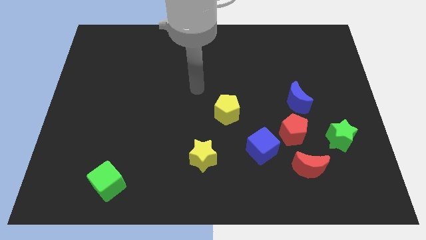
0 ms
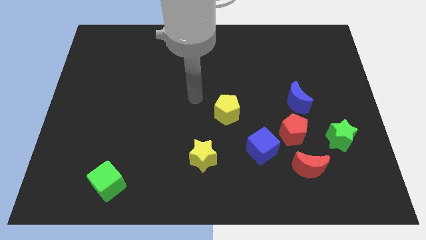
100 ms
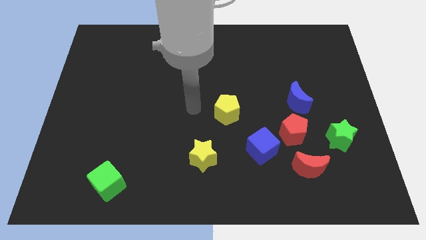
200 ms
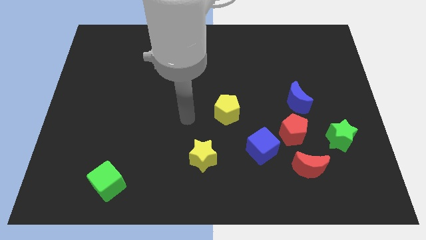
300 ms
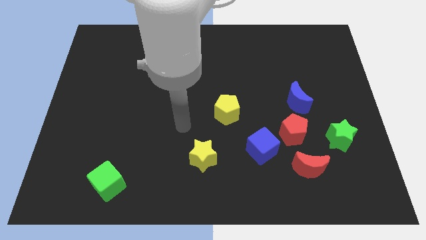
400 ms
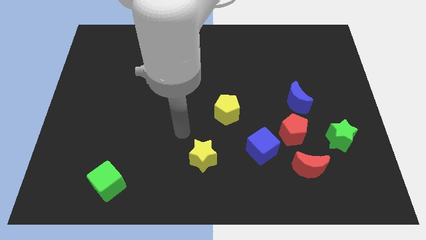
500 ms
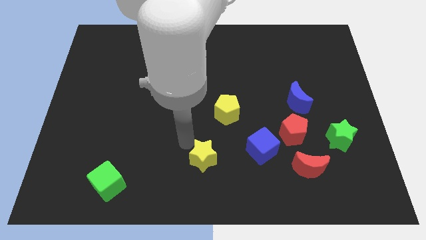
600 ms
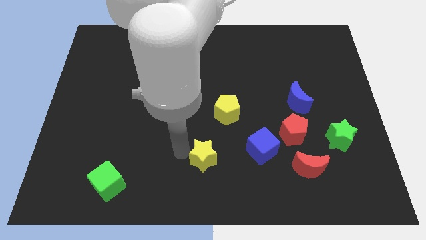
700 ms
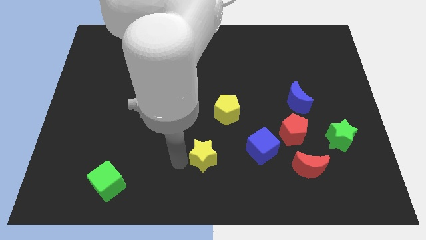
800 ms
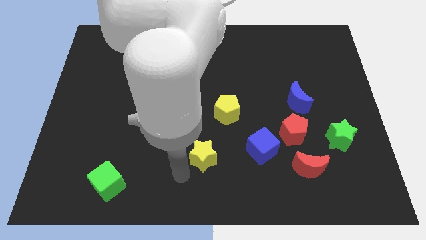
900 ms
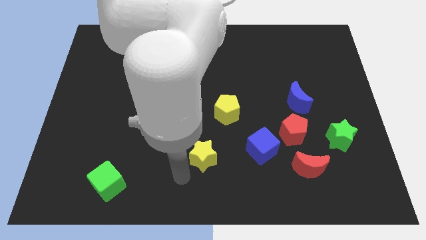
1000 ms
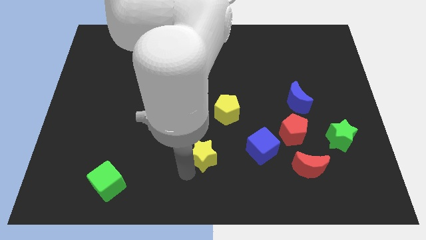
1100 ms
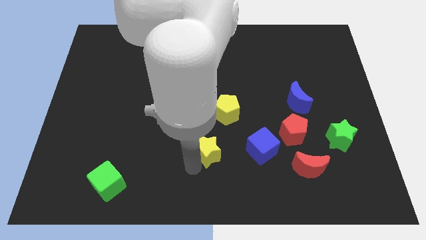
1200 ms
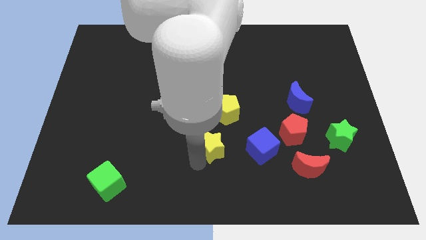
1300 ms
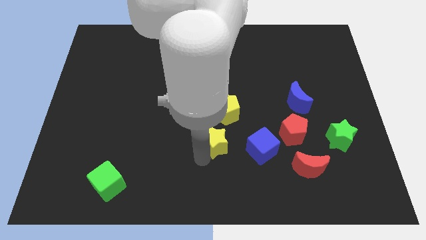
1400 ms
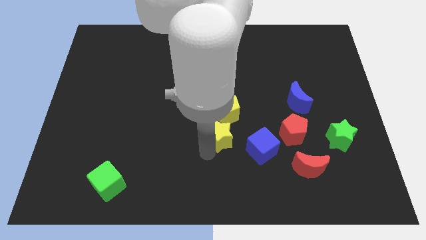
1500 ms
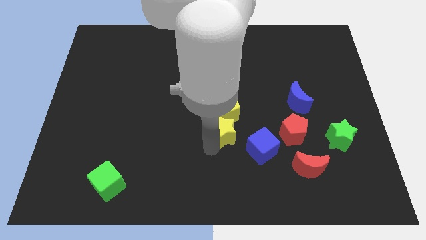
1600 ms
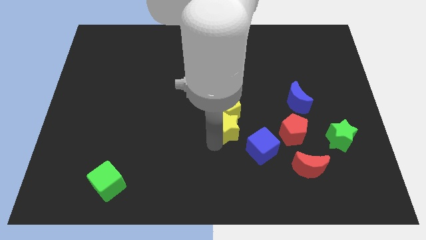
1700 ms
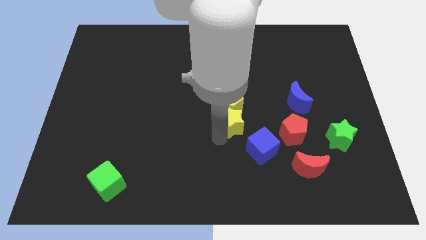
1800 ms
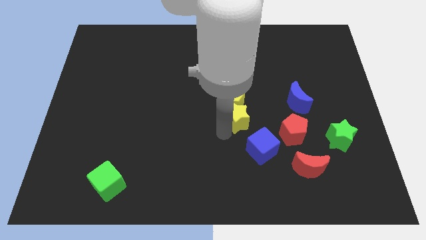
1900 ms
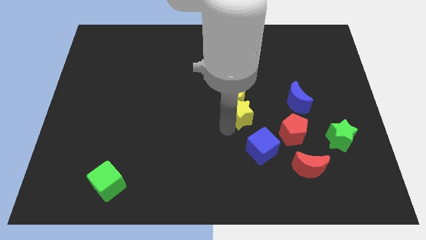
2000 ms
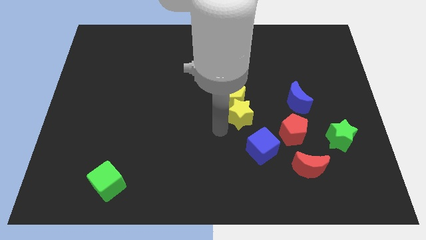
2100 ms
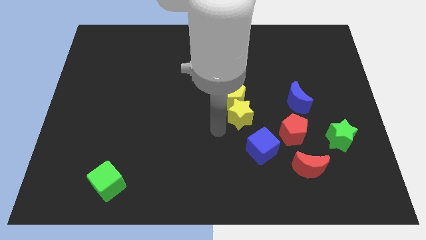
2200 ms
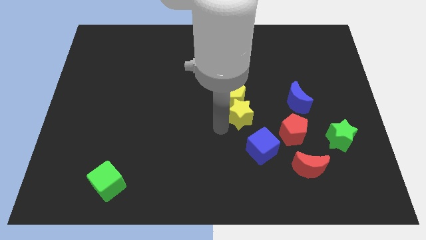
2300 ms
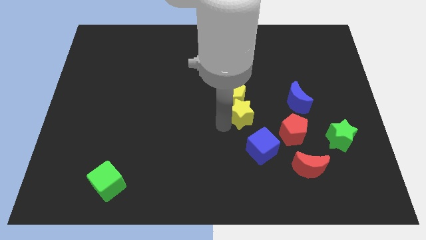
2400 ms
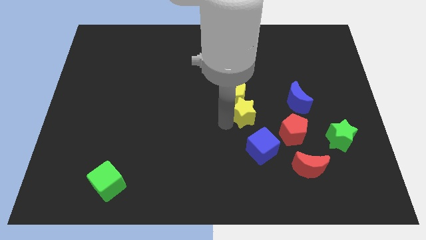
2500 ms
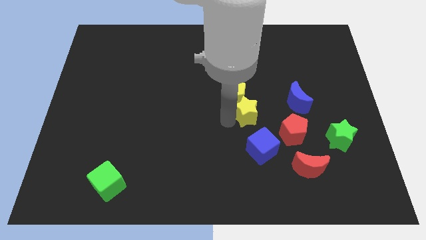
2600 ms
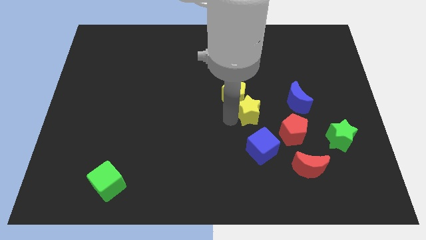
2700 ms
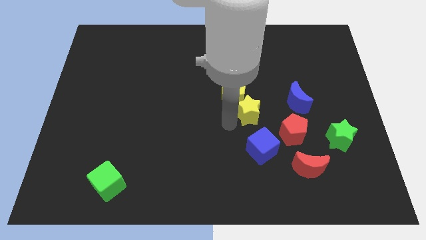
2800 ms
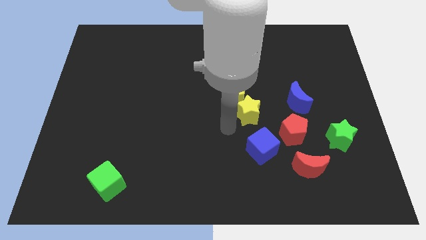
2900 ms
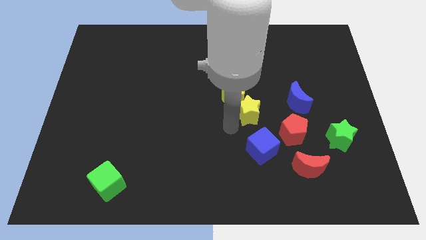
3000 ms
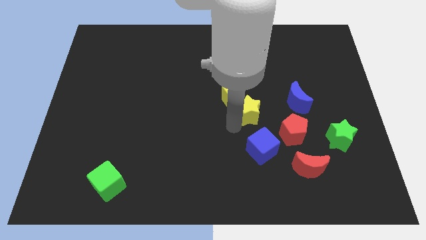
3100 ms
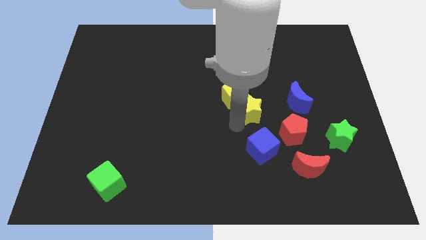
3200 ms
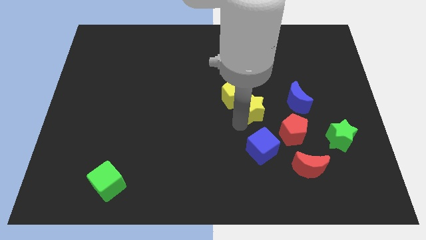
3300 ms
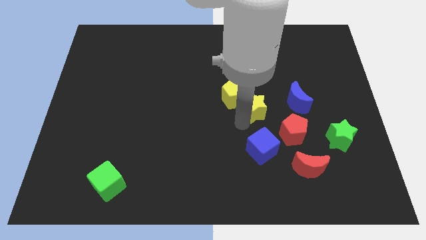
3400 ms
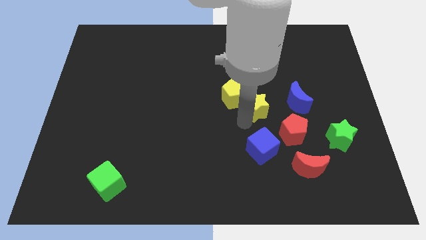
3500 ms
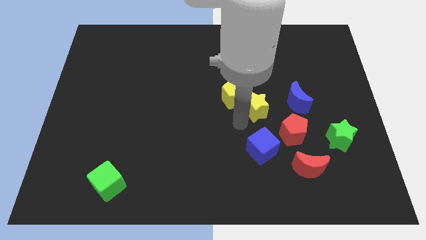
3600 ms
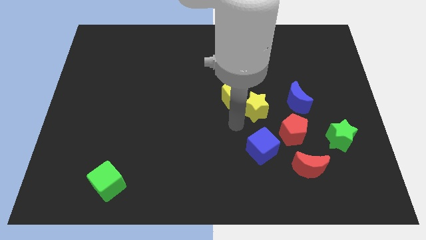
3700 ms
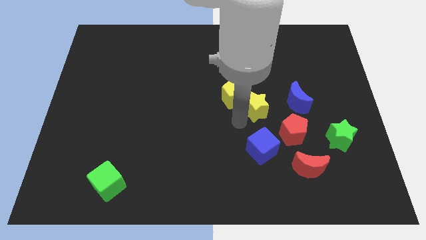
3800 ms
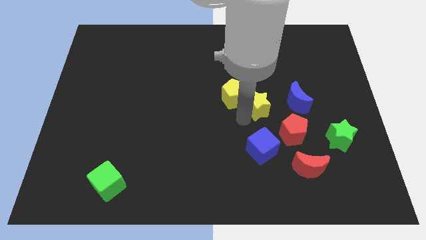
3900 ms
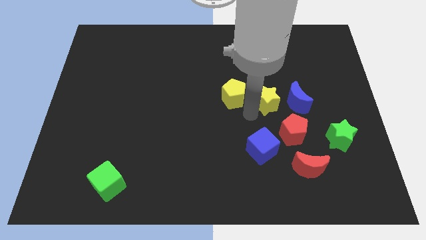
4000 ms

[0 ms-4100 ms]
slide the yellow star diagonally upwards and right

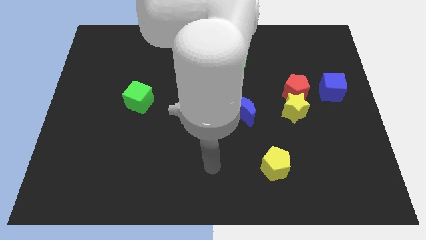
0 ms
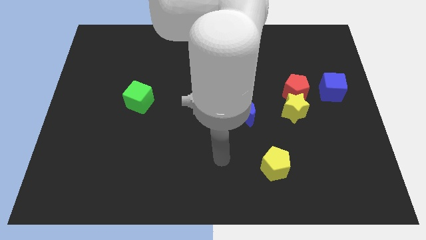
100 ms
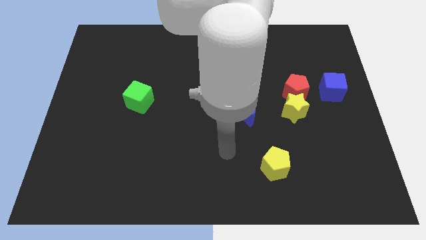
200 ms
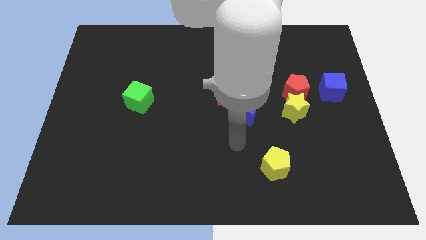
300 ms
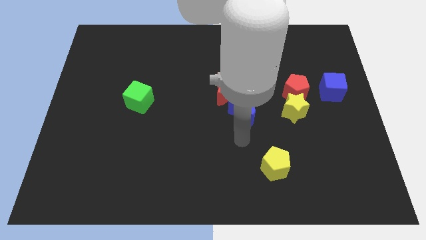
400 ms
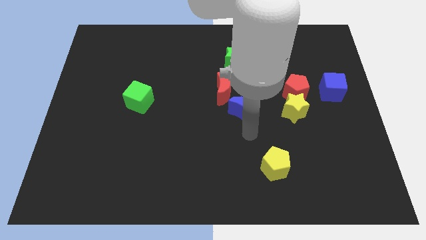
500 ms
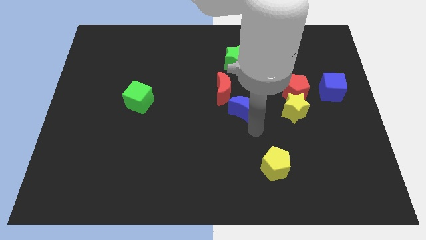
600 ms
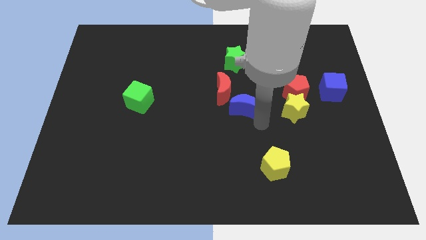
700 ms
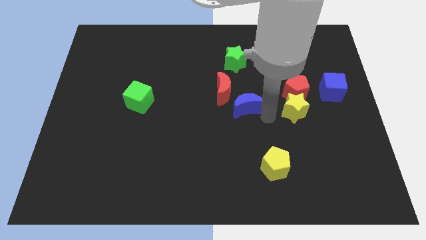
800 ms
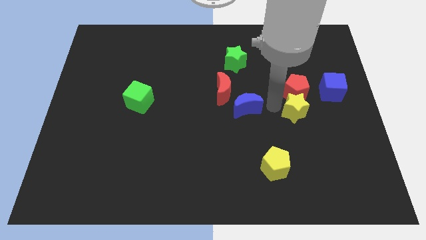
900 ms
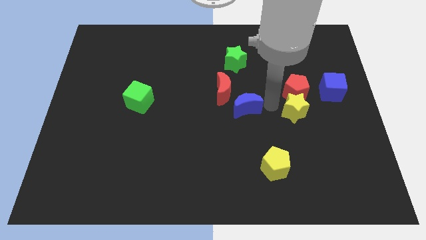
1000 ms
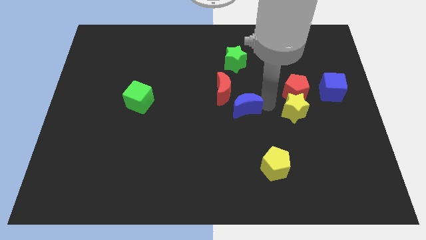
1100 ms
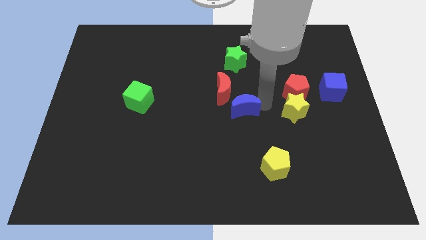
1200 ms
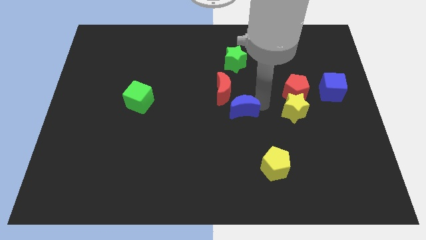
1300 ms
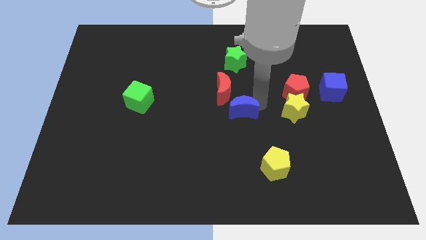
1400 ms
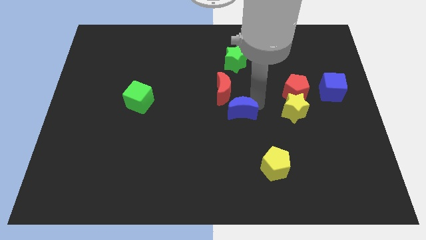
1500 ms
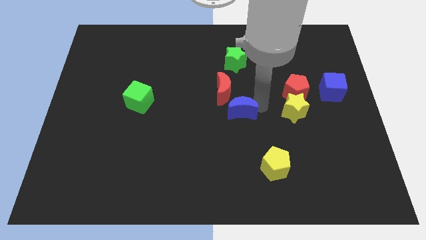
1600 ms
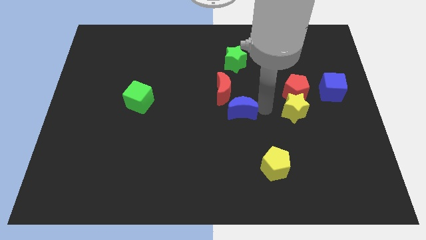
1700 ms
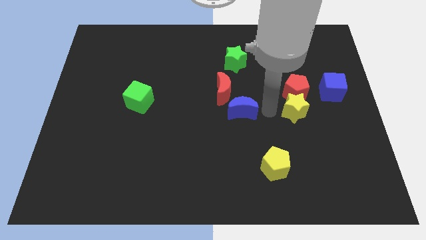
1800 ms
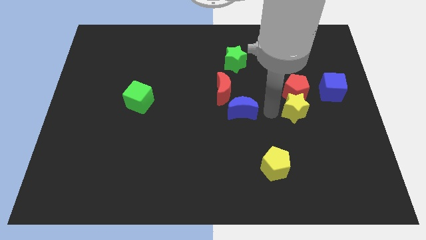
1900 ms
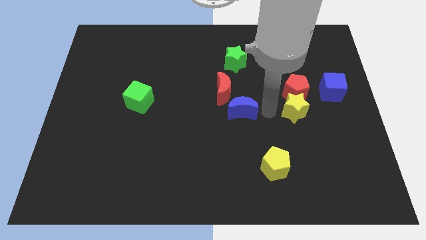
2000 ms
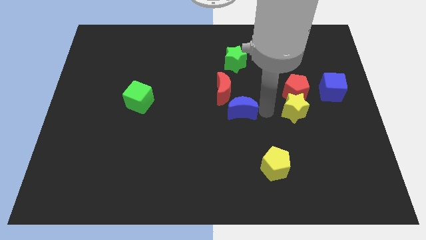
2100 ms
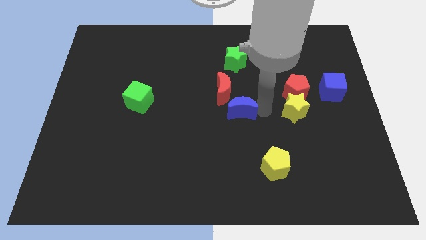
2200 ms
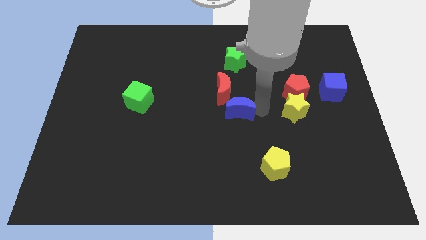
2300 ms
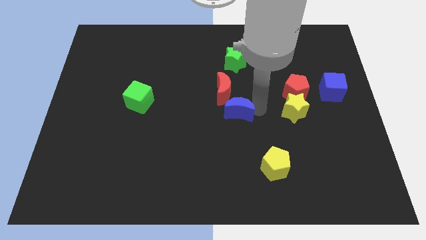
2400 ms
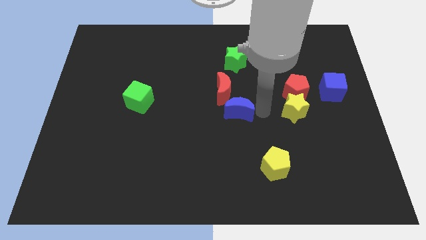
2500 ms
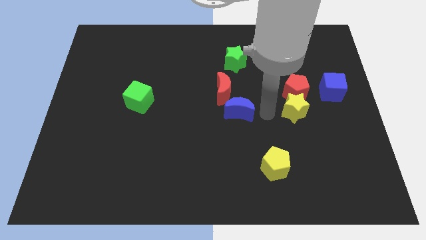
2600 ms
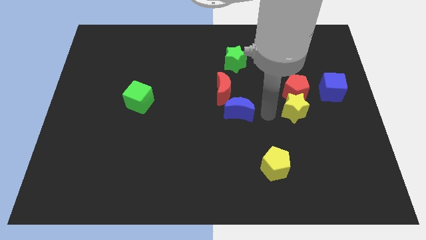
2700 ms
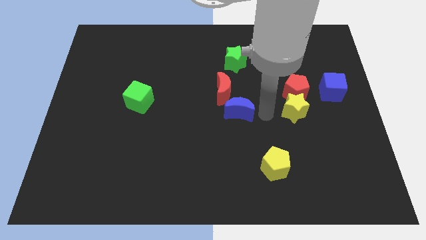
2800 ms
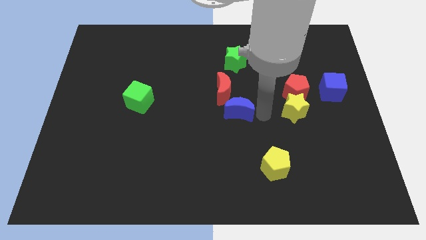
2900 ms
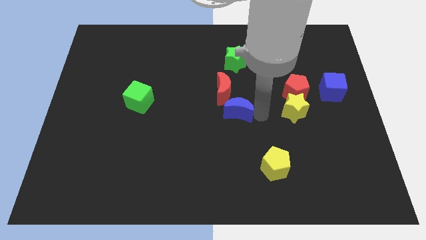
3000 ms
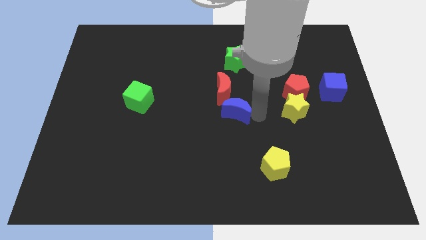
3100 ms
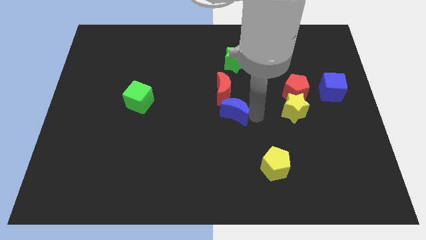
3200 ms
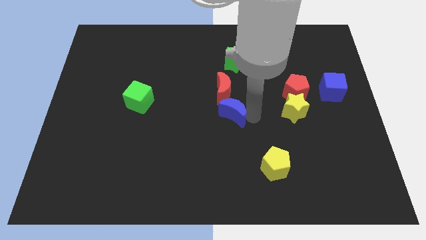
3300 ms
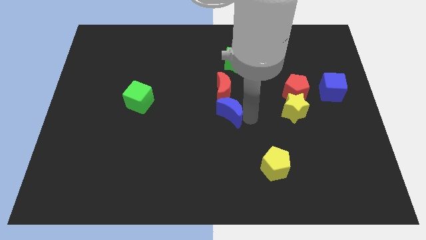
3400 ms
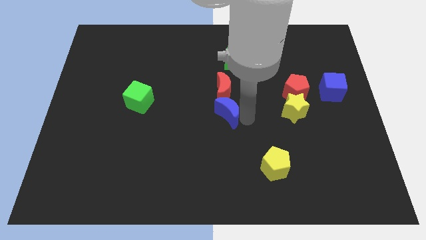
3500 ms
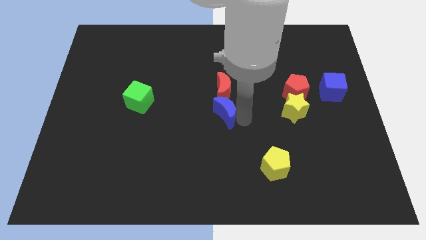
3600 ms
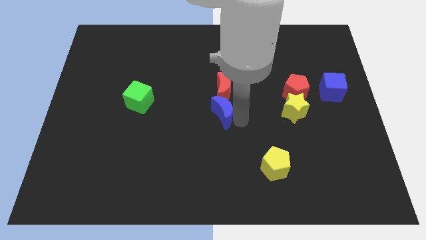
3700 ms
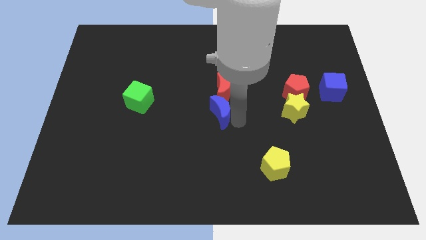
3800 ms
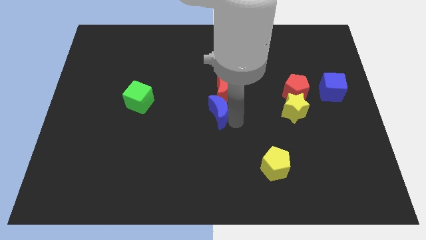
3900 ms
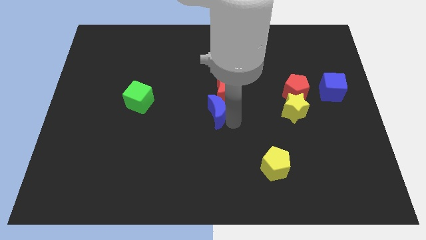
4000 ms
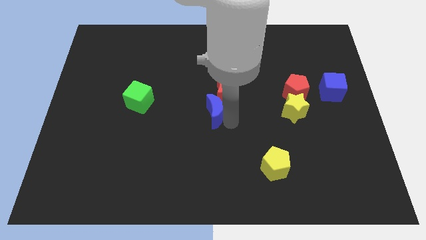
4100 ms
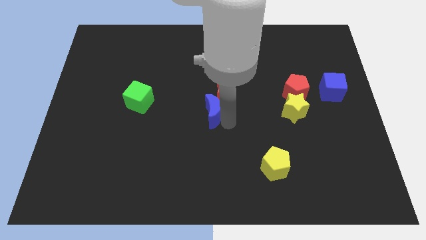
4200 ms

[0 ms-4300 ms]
move the blue moon a bit to the left
